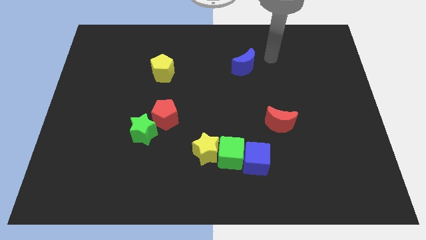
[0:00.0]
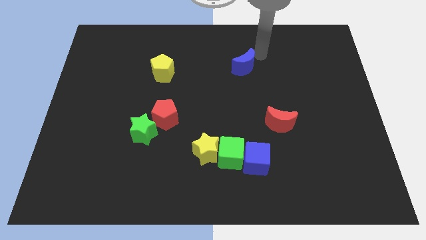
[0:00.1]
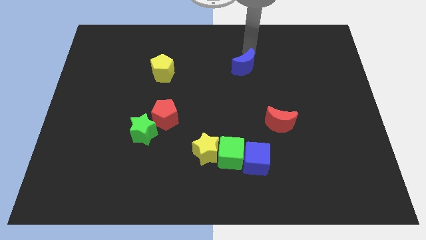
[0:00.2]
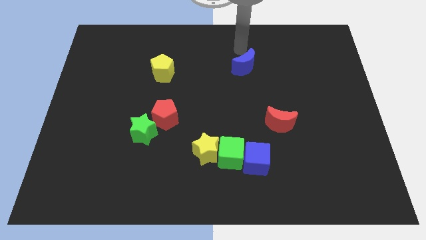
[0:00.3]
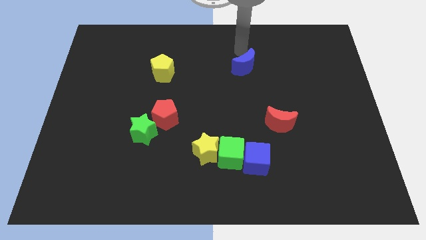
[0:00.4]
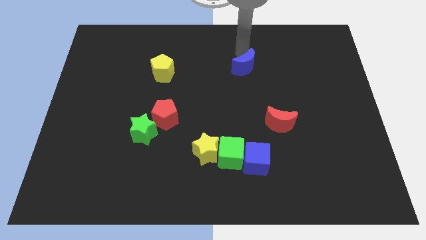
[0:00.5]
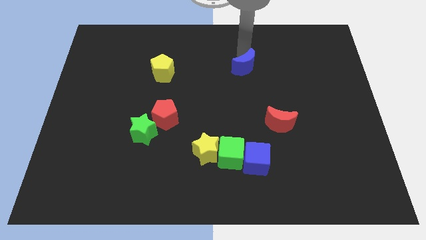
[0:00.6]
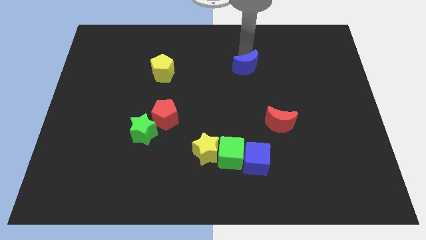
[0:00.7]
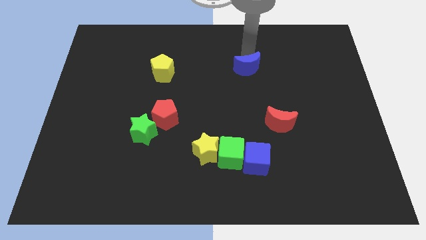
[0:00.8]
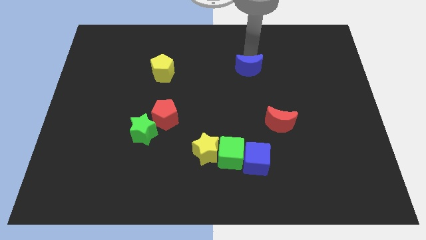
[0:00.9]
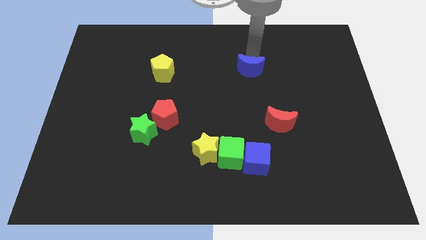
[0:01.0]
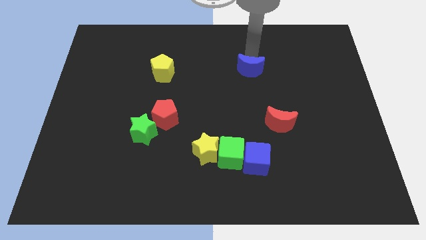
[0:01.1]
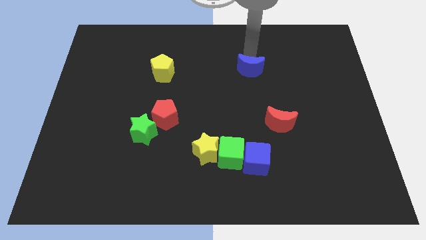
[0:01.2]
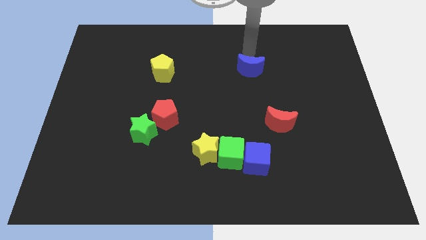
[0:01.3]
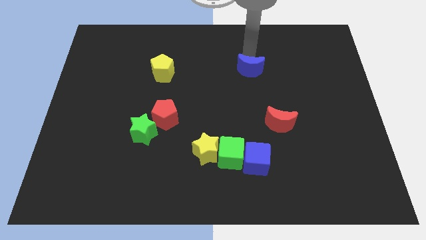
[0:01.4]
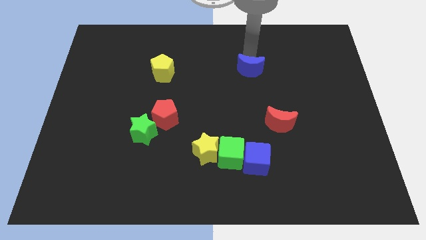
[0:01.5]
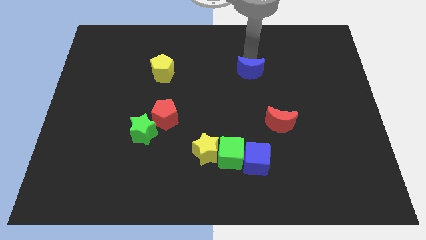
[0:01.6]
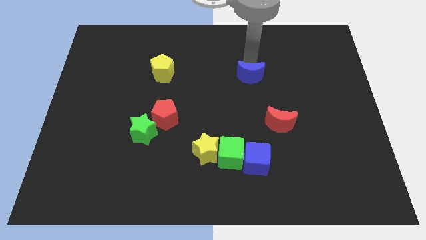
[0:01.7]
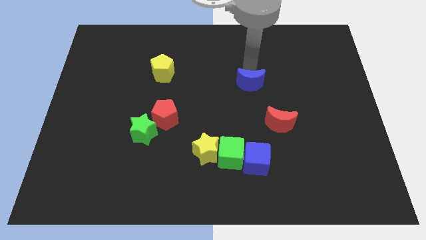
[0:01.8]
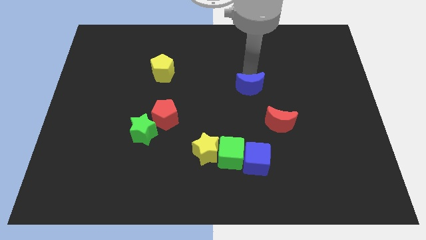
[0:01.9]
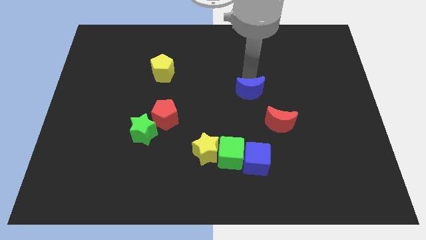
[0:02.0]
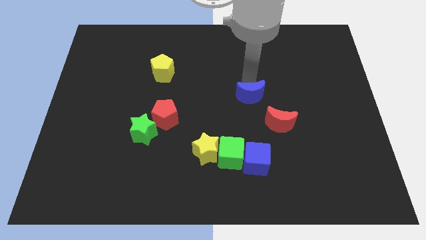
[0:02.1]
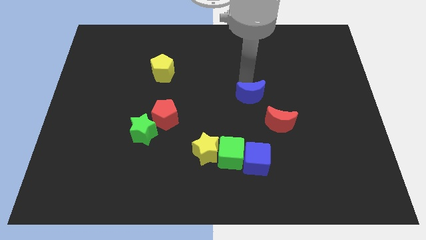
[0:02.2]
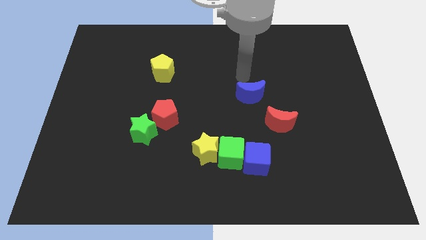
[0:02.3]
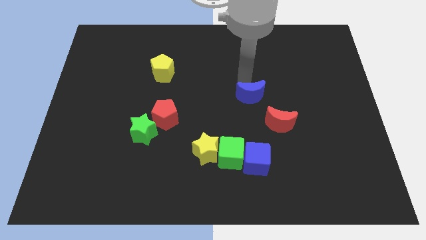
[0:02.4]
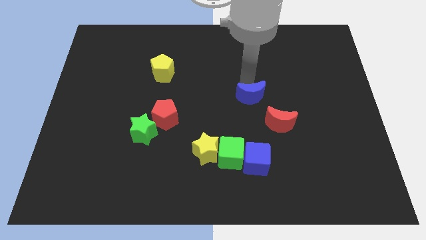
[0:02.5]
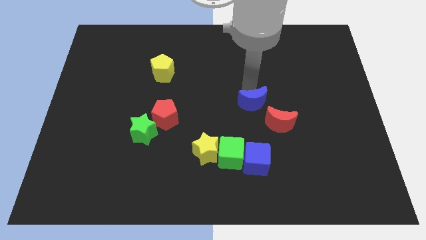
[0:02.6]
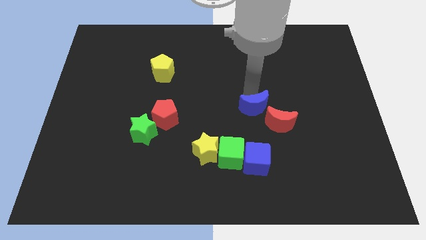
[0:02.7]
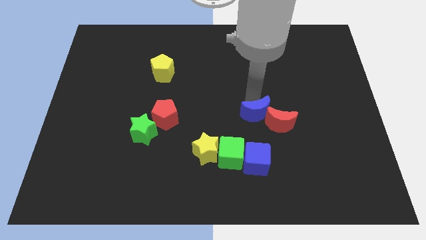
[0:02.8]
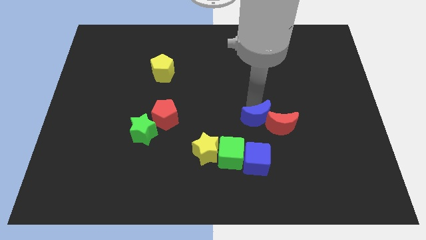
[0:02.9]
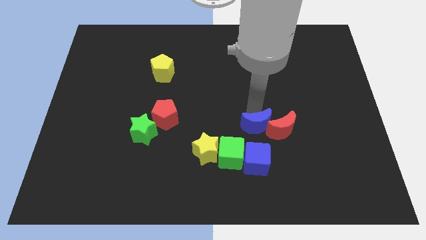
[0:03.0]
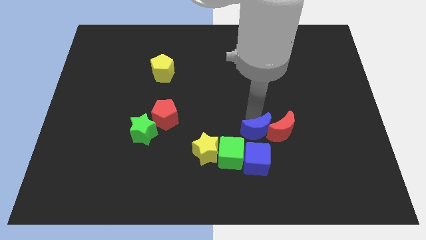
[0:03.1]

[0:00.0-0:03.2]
slide the blue moon down

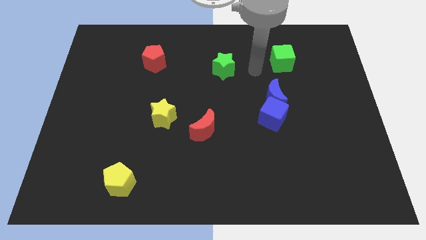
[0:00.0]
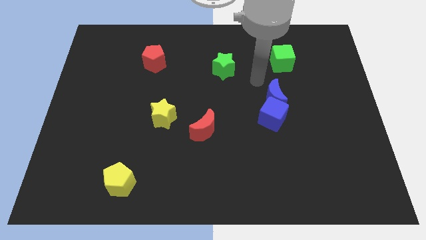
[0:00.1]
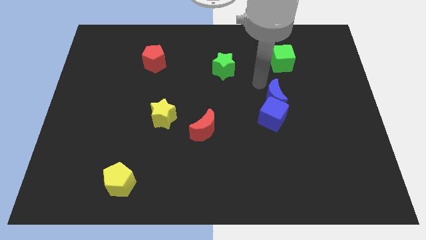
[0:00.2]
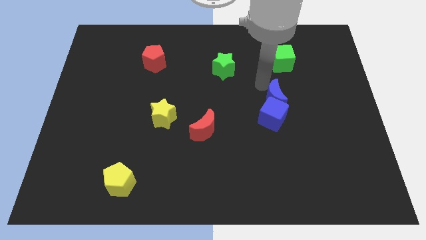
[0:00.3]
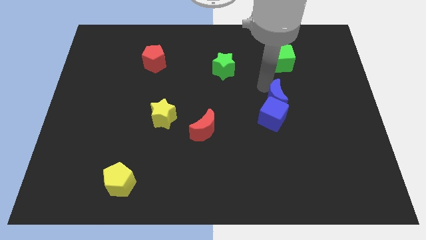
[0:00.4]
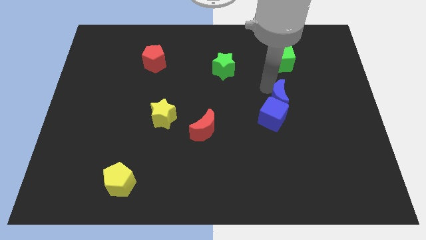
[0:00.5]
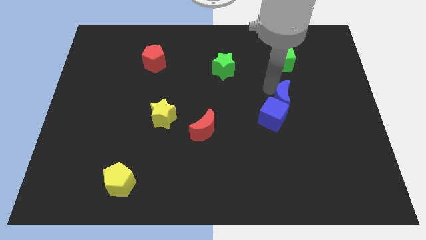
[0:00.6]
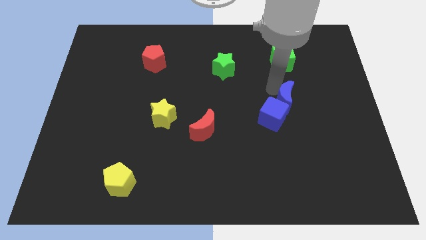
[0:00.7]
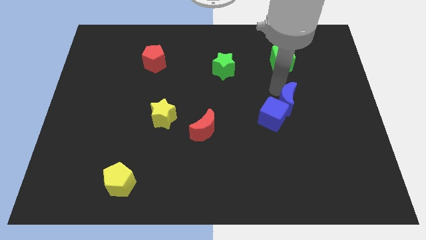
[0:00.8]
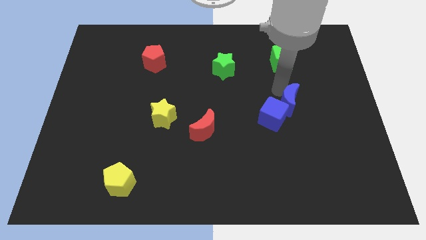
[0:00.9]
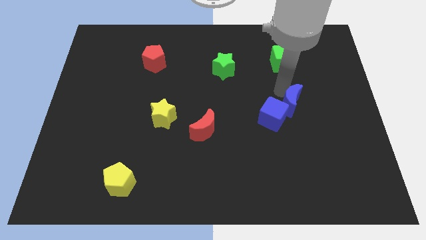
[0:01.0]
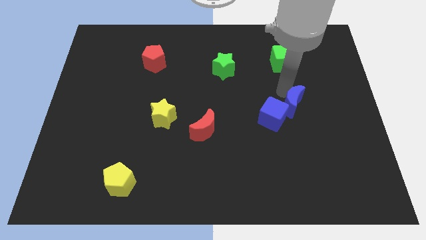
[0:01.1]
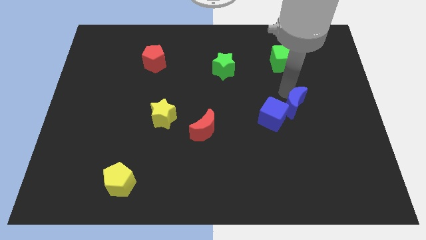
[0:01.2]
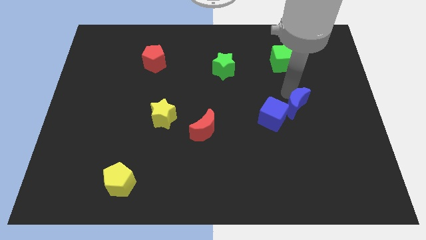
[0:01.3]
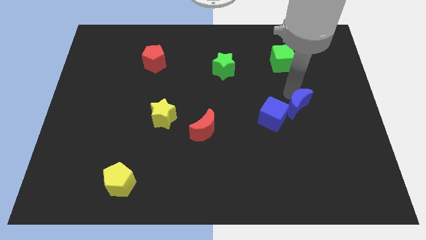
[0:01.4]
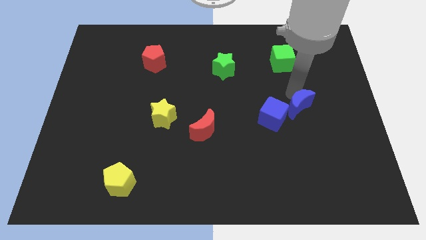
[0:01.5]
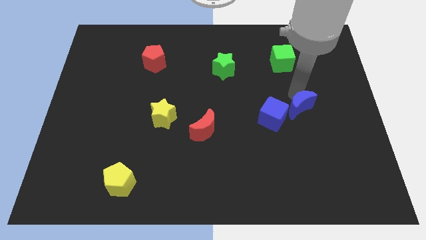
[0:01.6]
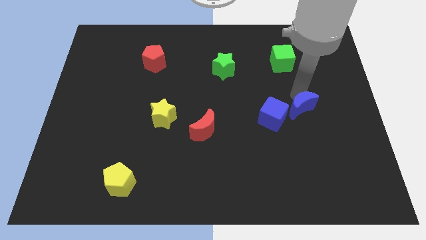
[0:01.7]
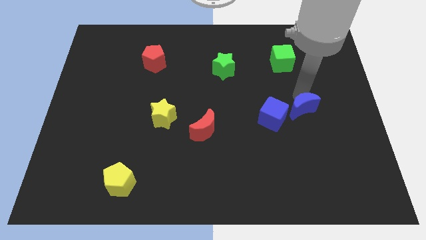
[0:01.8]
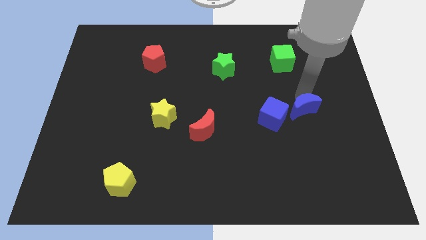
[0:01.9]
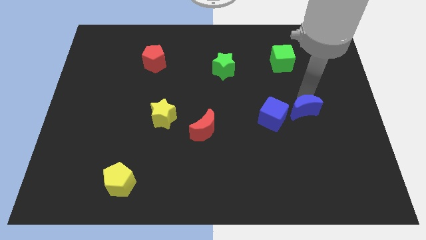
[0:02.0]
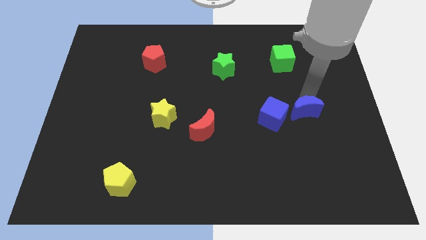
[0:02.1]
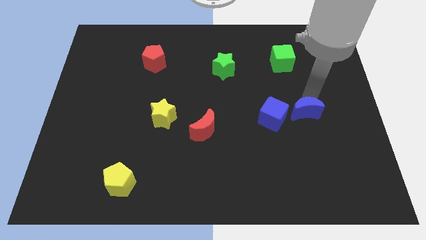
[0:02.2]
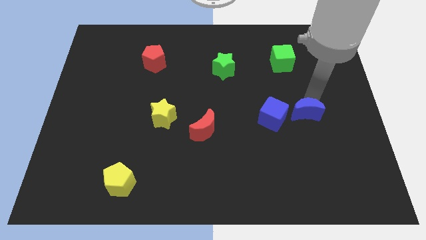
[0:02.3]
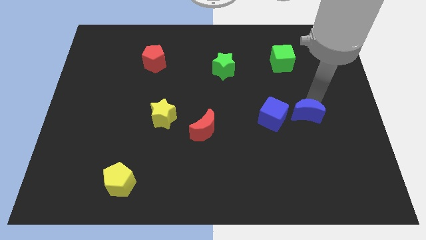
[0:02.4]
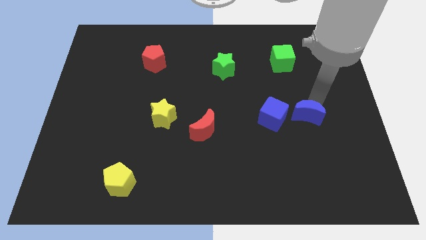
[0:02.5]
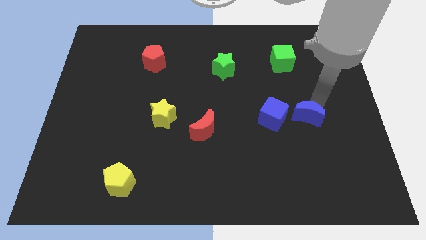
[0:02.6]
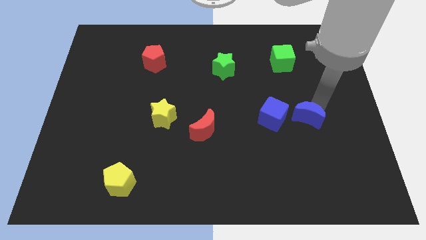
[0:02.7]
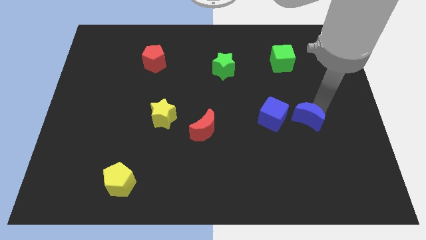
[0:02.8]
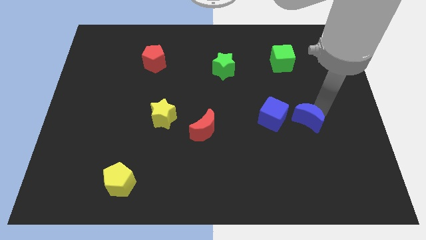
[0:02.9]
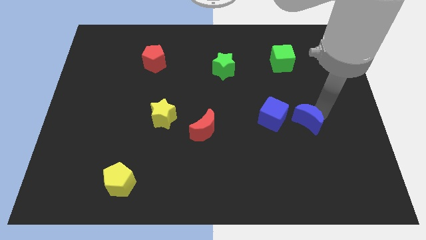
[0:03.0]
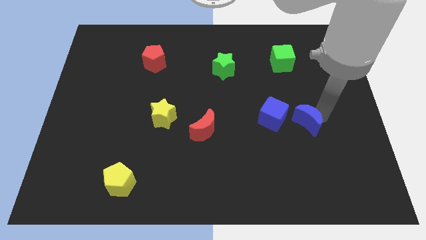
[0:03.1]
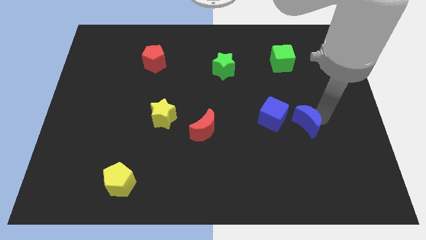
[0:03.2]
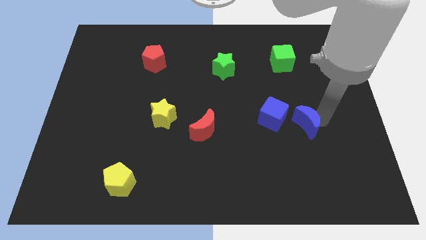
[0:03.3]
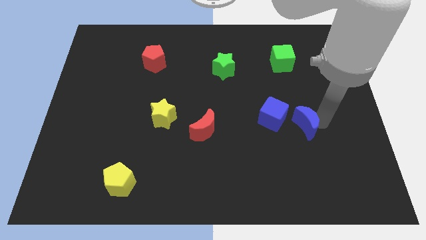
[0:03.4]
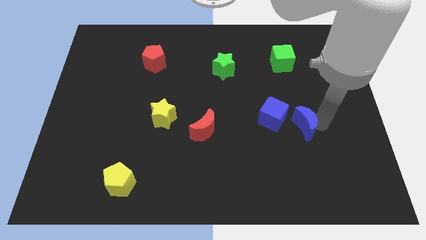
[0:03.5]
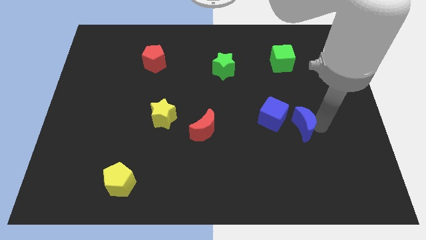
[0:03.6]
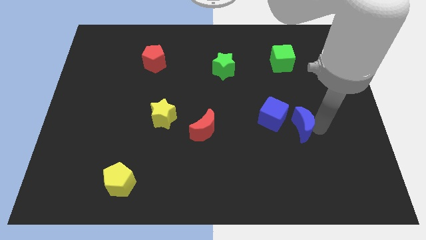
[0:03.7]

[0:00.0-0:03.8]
push the blue moon downwards somewhat

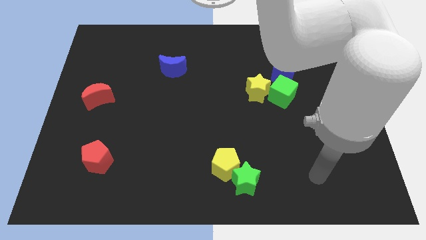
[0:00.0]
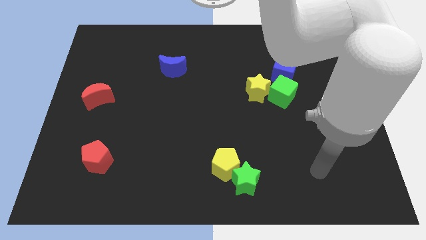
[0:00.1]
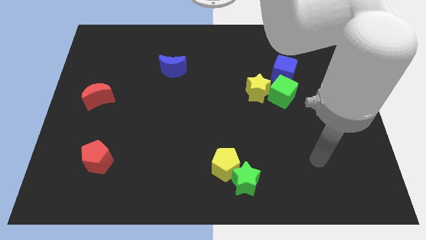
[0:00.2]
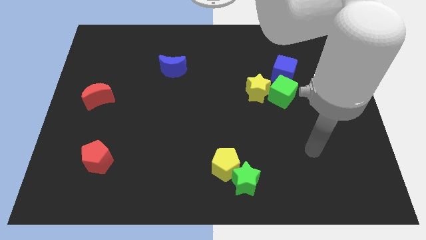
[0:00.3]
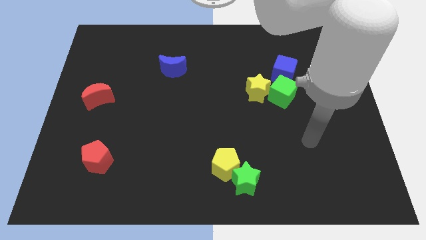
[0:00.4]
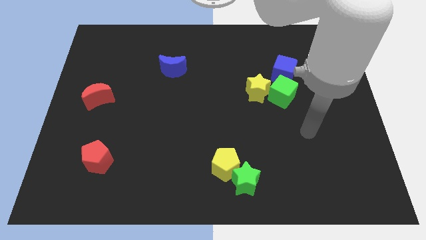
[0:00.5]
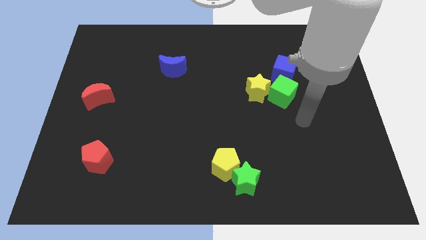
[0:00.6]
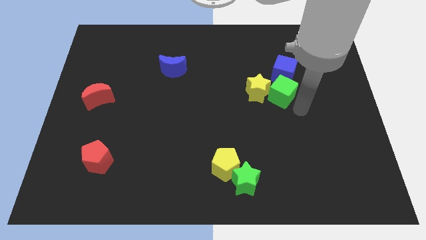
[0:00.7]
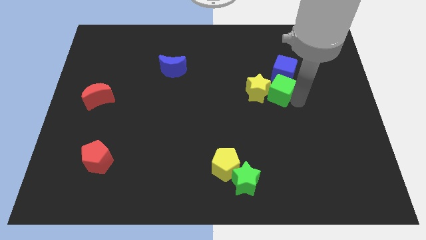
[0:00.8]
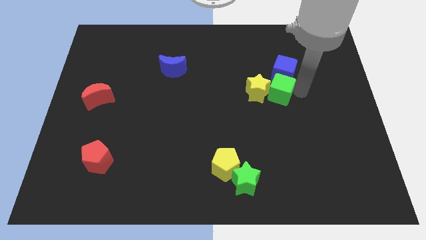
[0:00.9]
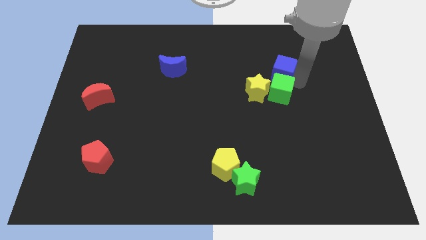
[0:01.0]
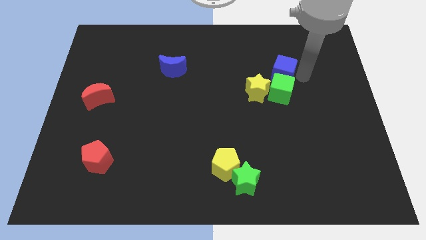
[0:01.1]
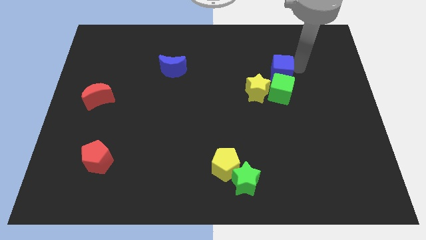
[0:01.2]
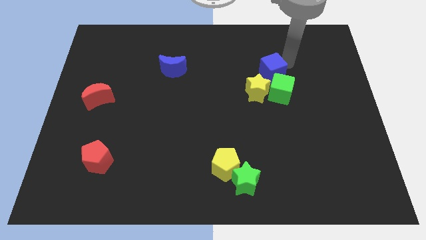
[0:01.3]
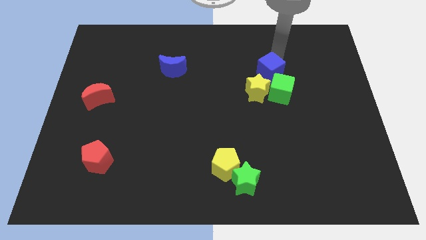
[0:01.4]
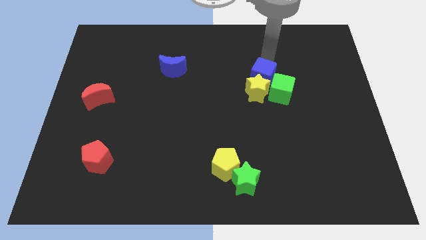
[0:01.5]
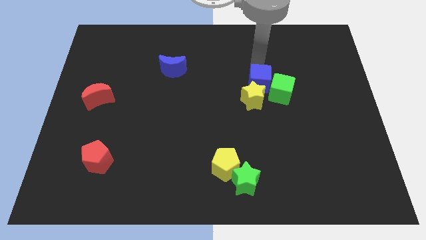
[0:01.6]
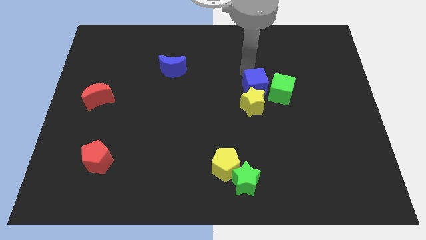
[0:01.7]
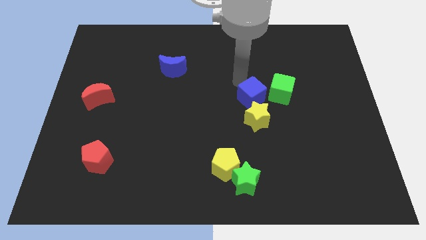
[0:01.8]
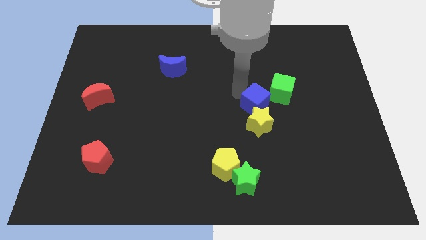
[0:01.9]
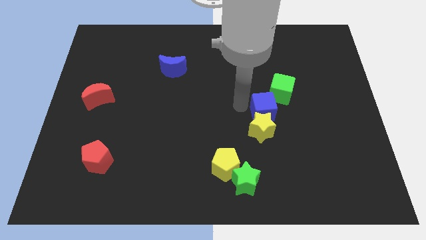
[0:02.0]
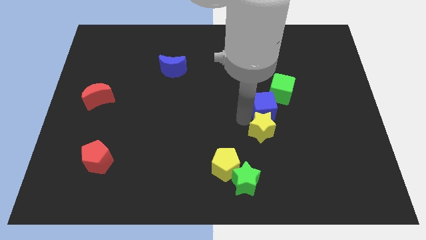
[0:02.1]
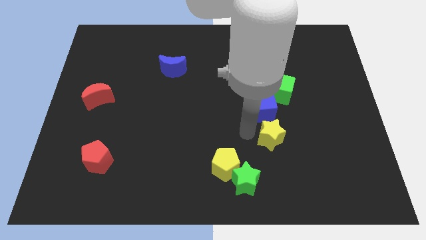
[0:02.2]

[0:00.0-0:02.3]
push the yellow star downwards and to the right a little
